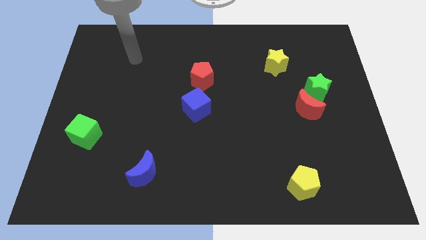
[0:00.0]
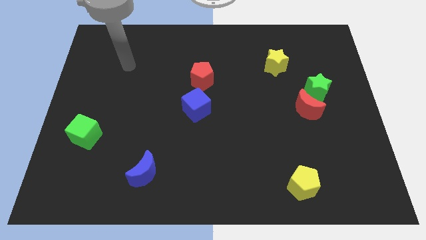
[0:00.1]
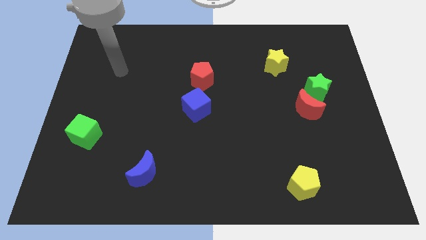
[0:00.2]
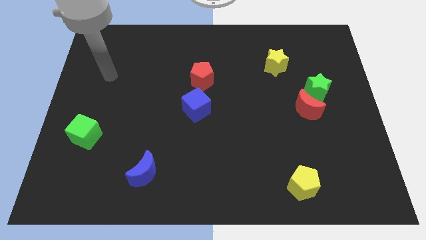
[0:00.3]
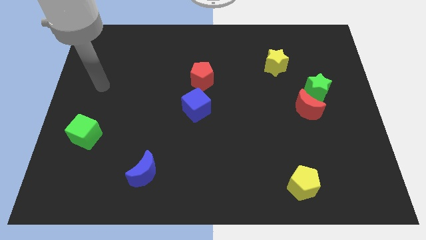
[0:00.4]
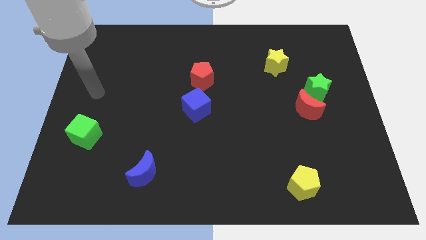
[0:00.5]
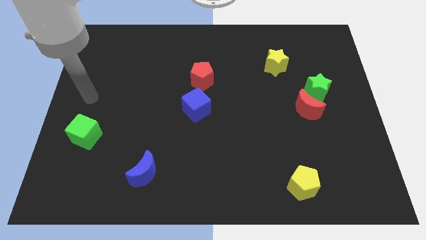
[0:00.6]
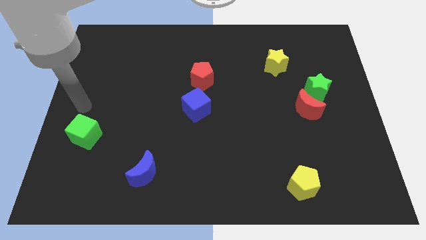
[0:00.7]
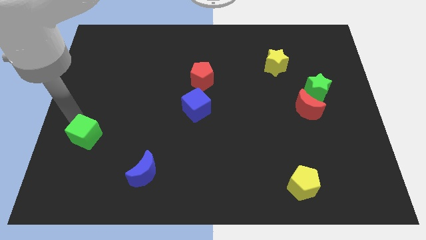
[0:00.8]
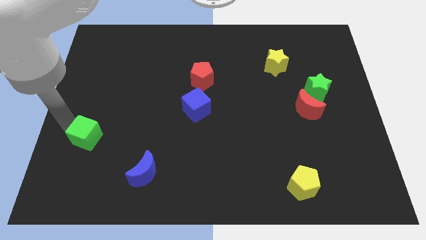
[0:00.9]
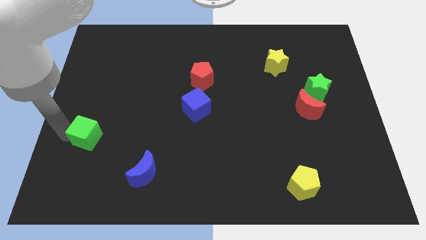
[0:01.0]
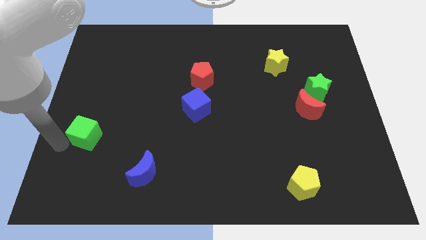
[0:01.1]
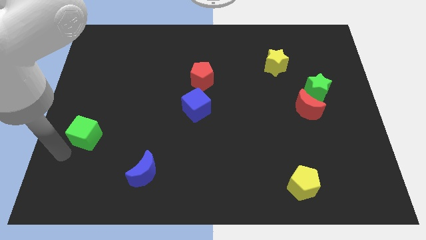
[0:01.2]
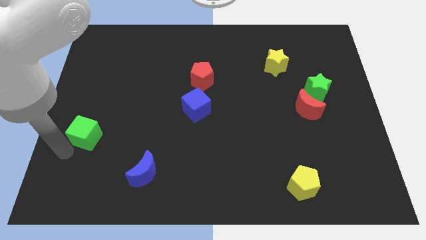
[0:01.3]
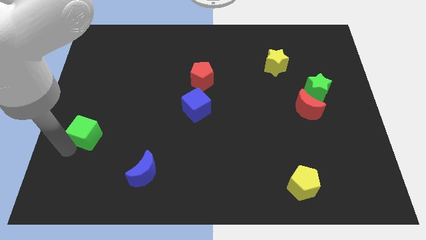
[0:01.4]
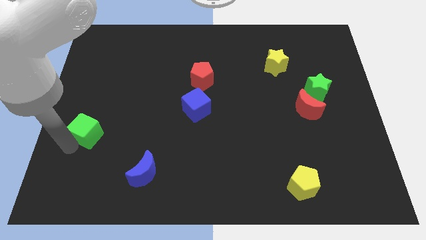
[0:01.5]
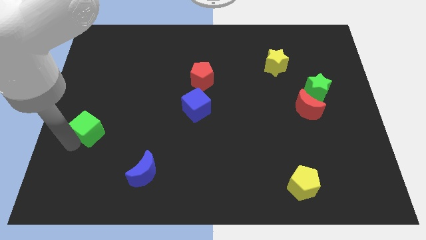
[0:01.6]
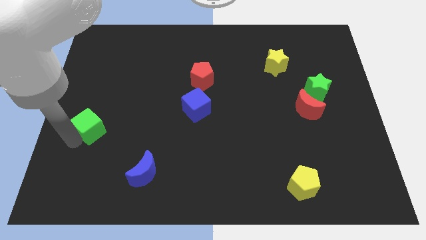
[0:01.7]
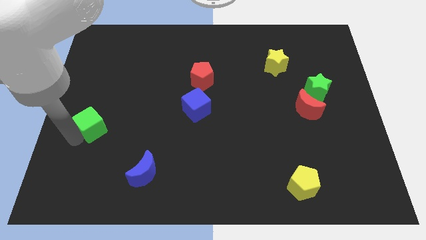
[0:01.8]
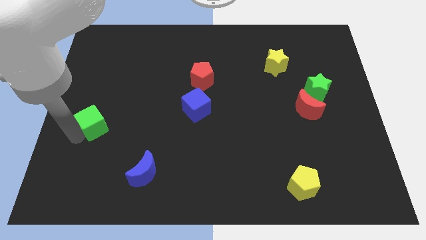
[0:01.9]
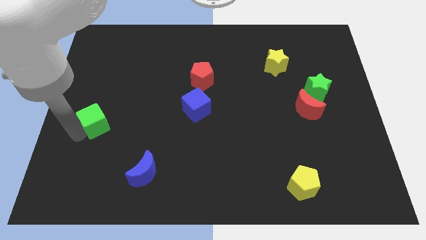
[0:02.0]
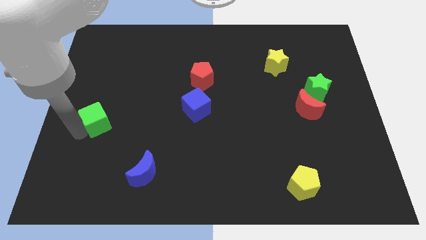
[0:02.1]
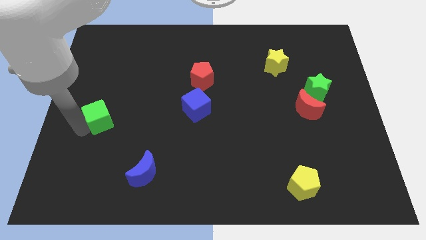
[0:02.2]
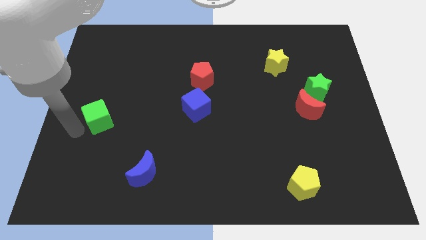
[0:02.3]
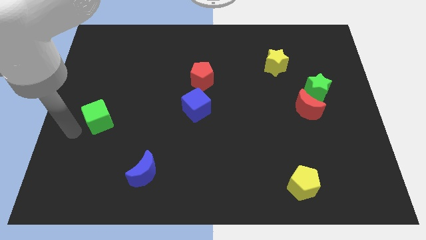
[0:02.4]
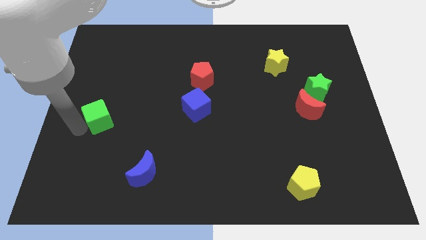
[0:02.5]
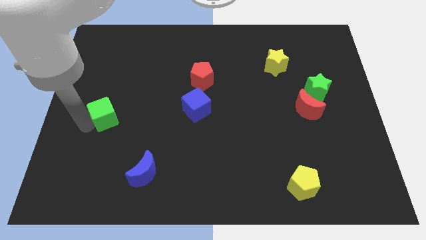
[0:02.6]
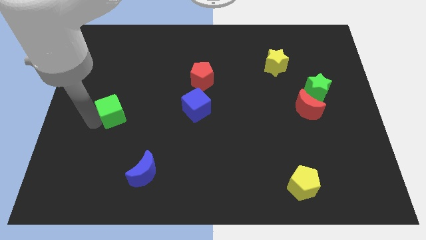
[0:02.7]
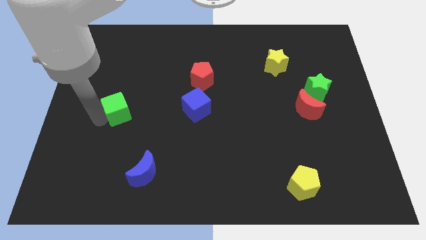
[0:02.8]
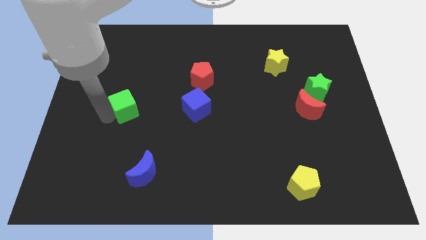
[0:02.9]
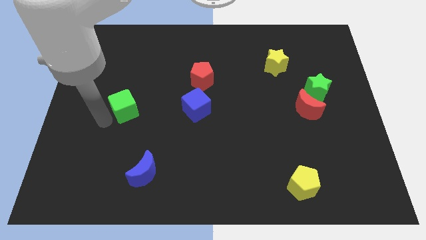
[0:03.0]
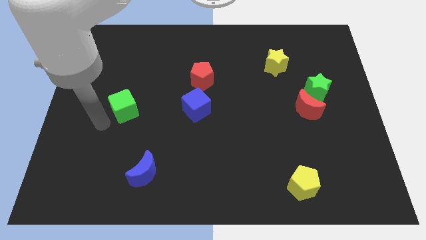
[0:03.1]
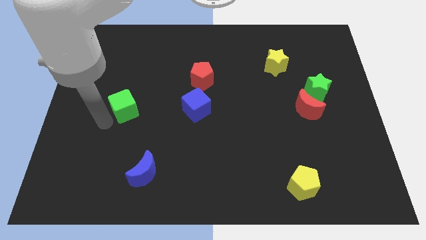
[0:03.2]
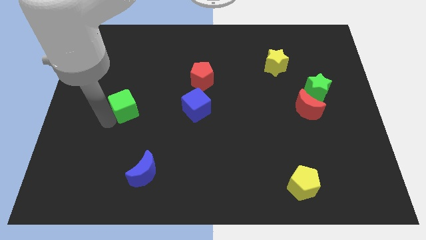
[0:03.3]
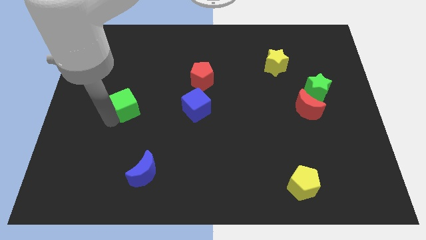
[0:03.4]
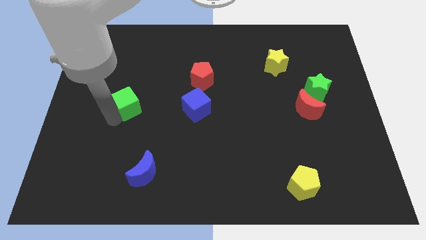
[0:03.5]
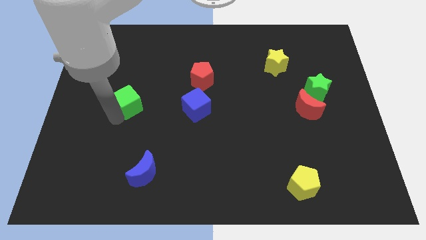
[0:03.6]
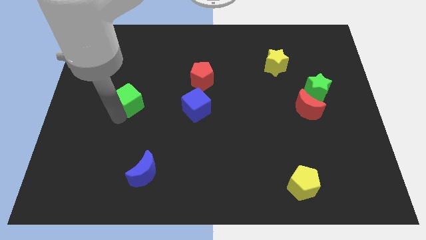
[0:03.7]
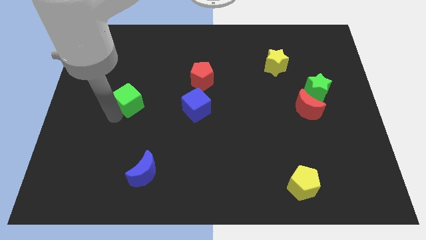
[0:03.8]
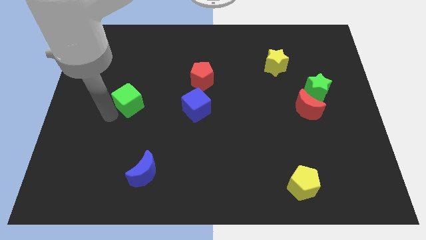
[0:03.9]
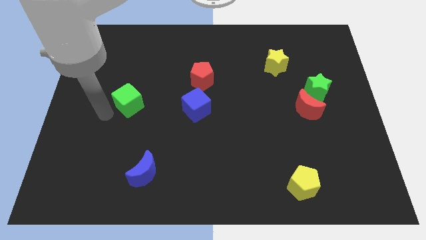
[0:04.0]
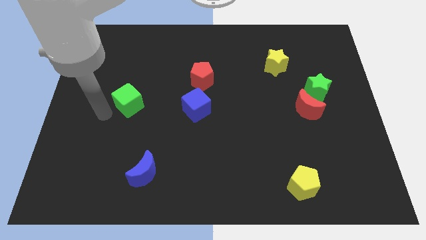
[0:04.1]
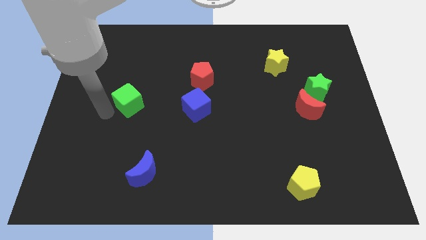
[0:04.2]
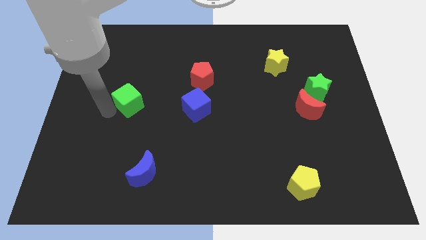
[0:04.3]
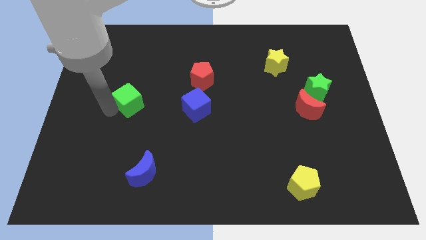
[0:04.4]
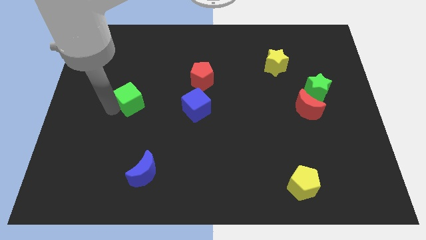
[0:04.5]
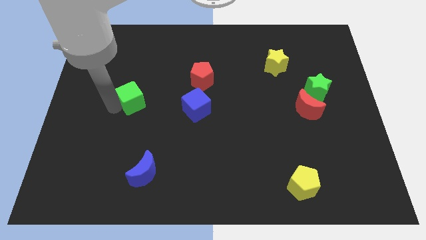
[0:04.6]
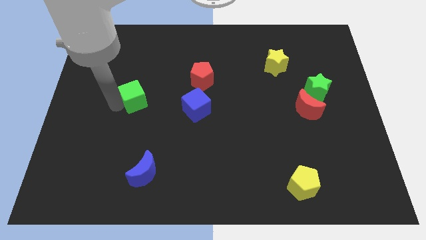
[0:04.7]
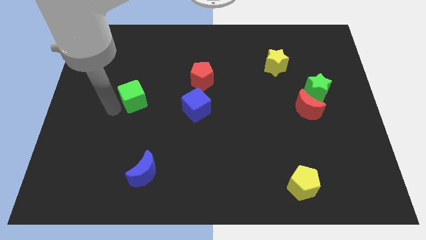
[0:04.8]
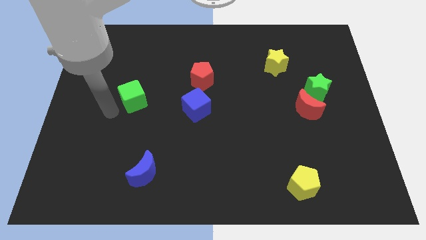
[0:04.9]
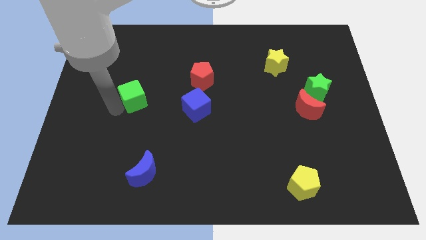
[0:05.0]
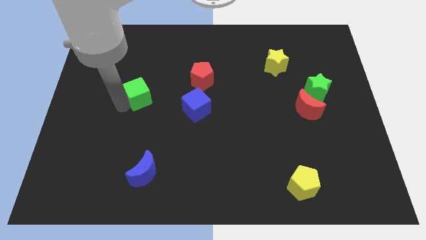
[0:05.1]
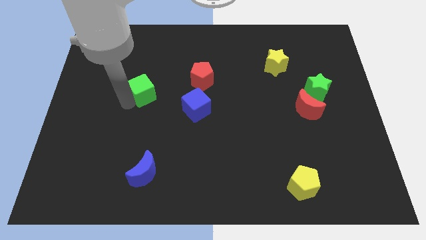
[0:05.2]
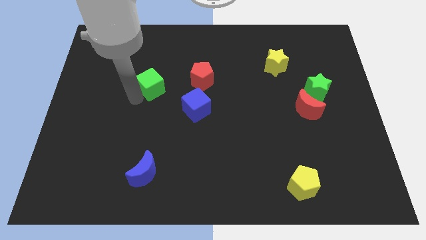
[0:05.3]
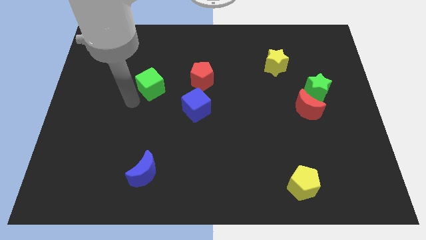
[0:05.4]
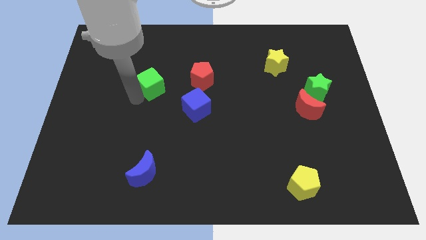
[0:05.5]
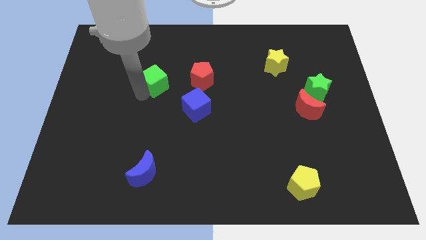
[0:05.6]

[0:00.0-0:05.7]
slide the green cube upwards and then to the right

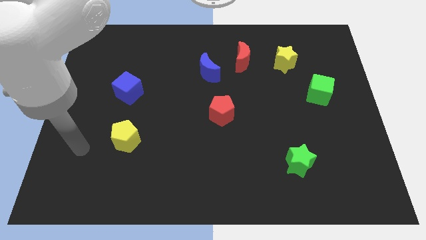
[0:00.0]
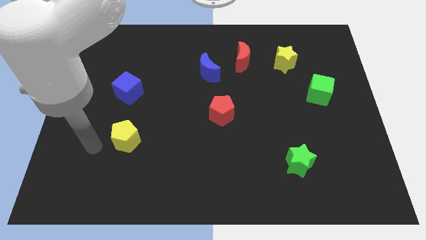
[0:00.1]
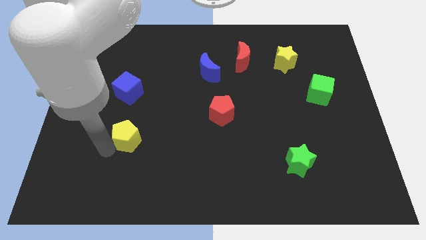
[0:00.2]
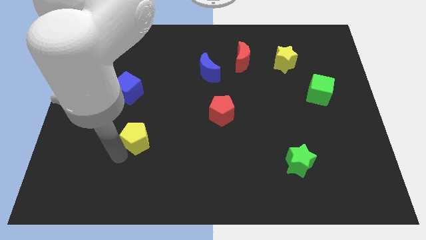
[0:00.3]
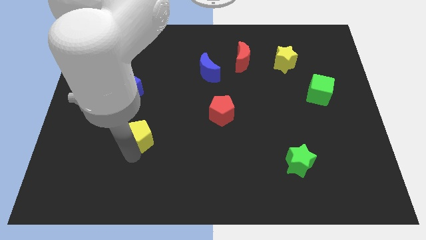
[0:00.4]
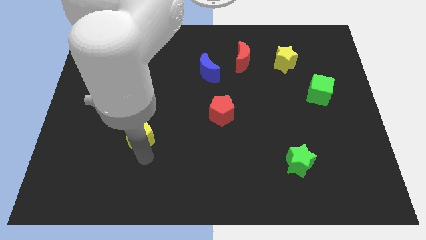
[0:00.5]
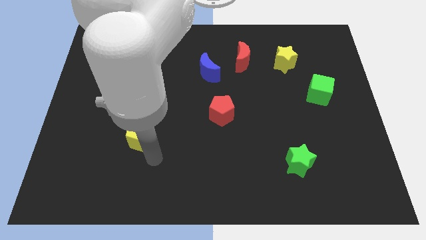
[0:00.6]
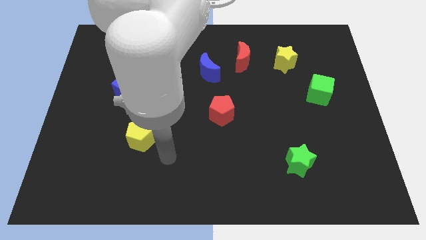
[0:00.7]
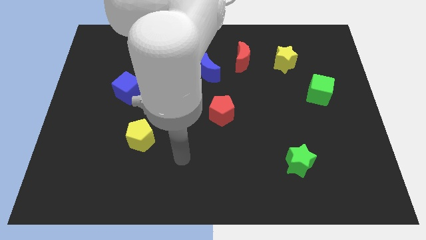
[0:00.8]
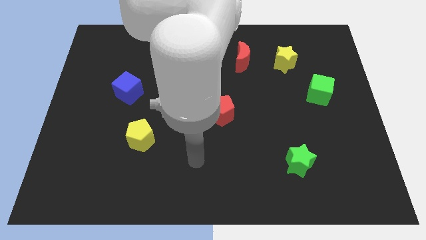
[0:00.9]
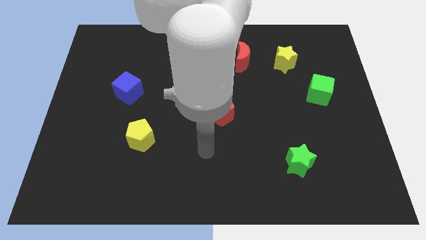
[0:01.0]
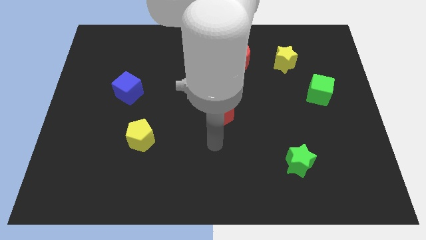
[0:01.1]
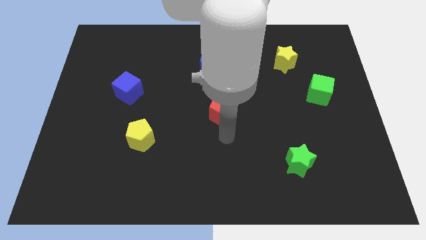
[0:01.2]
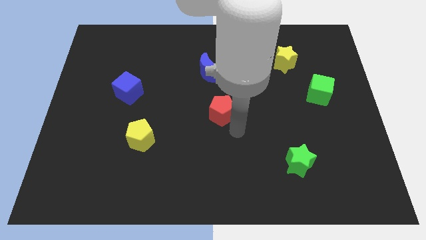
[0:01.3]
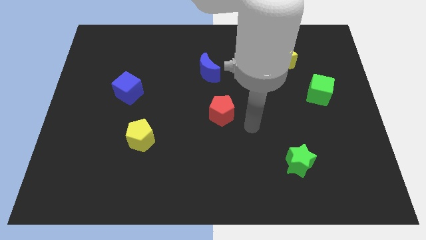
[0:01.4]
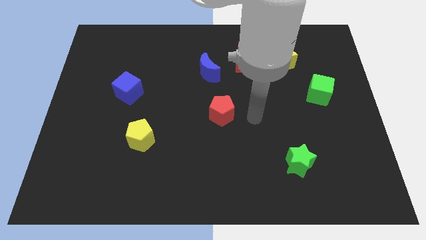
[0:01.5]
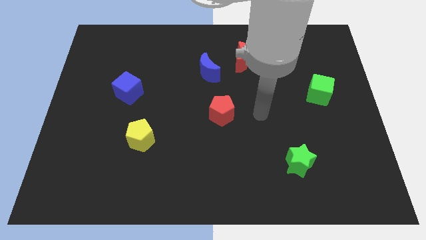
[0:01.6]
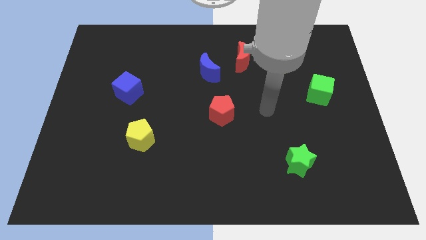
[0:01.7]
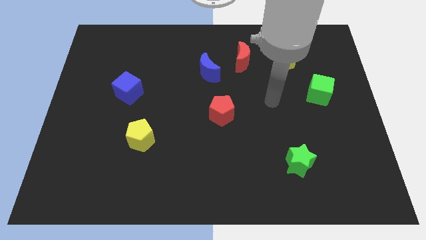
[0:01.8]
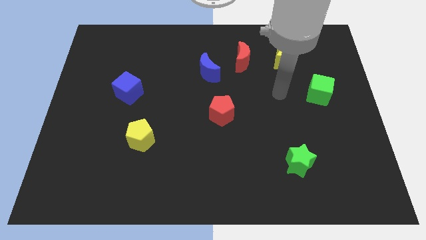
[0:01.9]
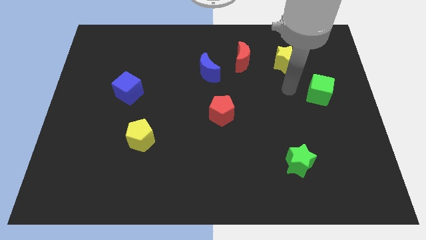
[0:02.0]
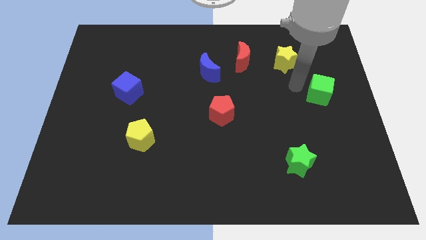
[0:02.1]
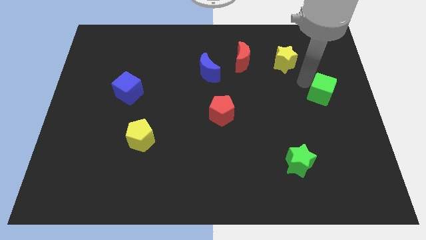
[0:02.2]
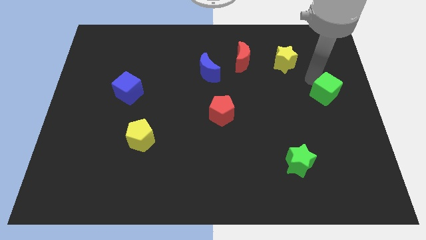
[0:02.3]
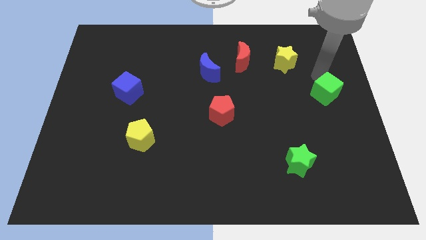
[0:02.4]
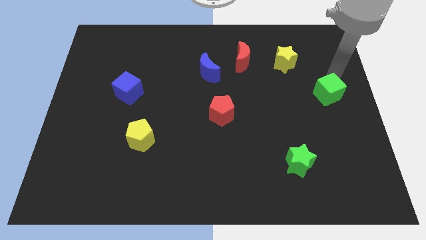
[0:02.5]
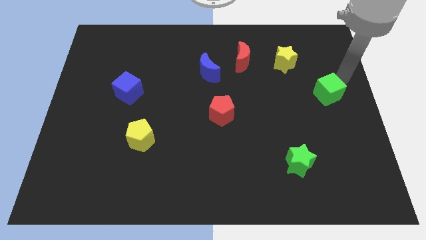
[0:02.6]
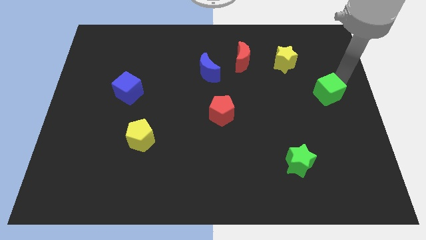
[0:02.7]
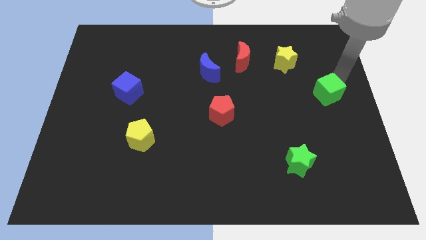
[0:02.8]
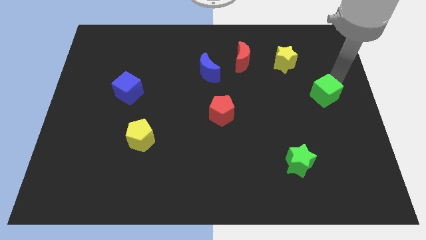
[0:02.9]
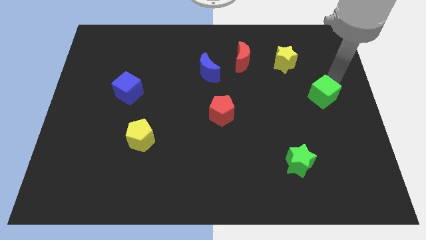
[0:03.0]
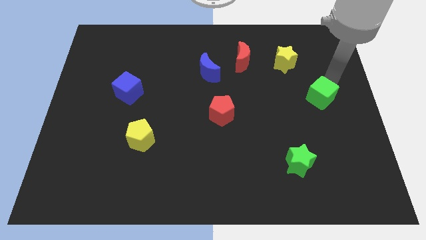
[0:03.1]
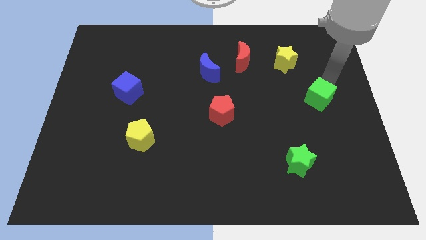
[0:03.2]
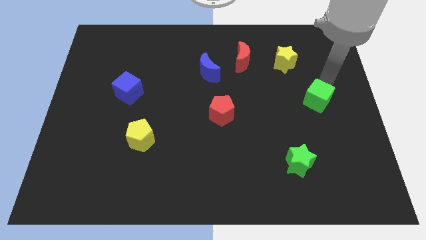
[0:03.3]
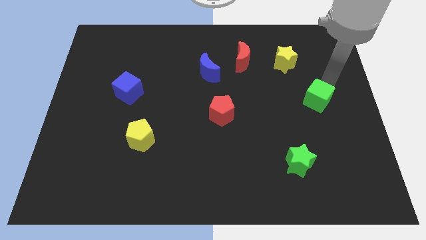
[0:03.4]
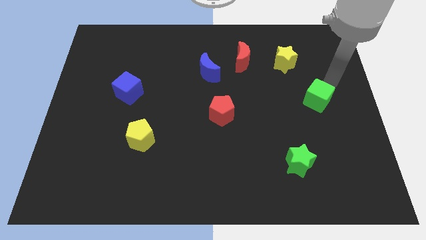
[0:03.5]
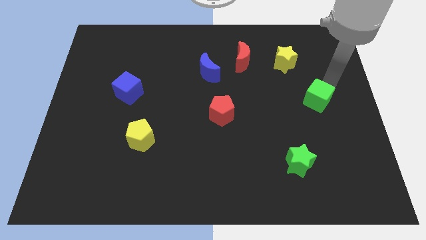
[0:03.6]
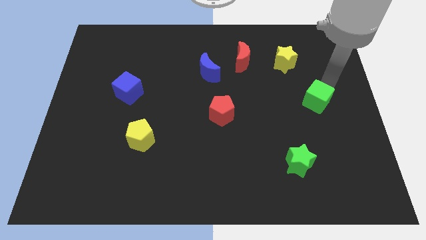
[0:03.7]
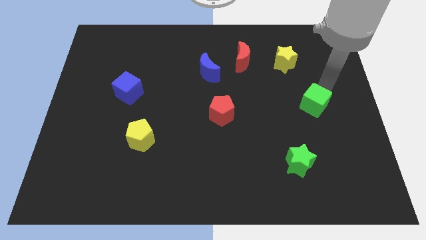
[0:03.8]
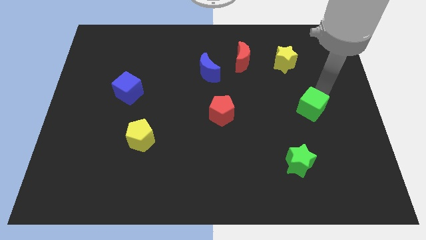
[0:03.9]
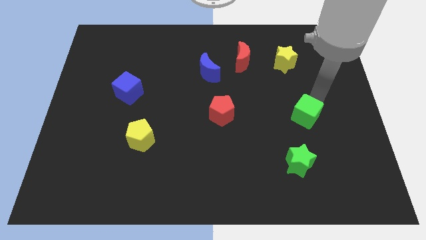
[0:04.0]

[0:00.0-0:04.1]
slide the green cube somewhat downwards and then to the left
